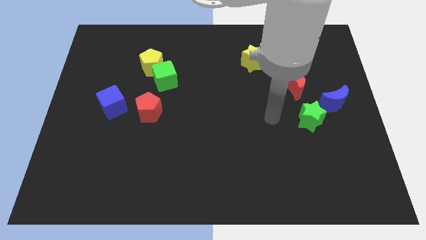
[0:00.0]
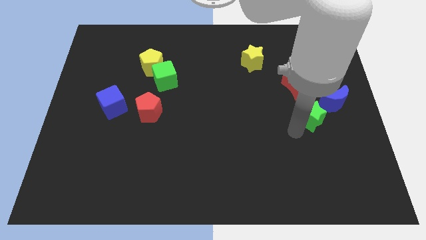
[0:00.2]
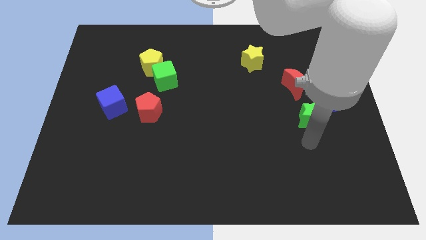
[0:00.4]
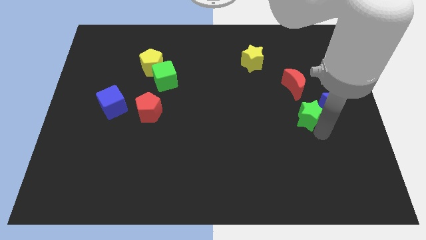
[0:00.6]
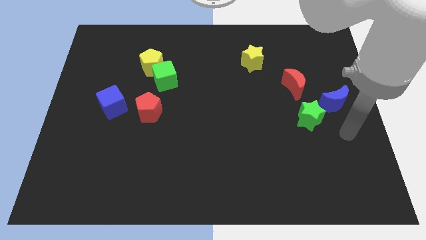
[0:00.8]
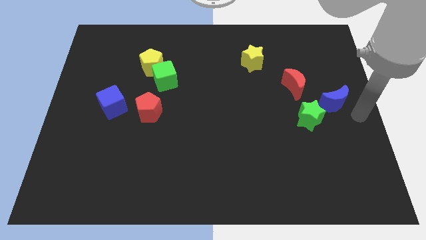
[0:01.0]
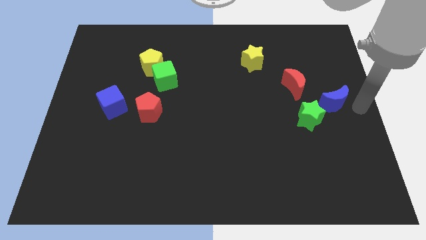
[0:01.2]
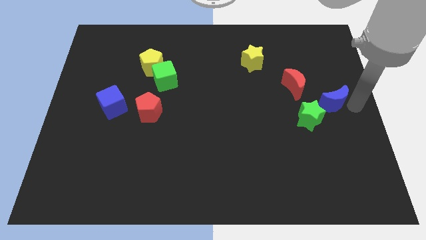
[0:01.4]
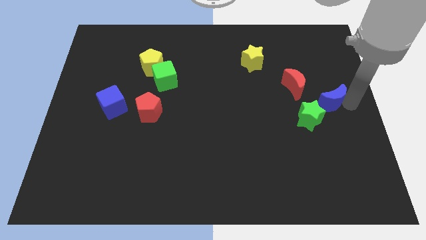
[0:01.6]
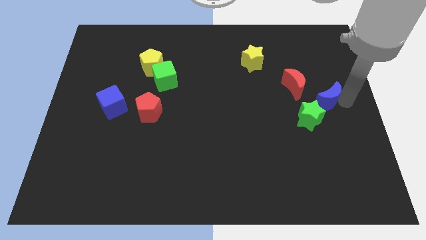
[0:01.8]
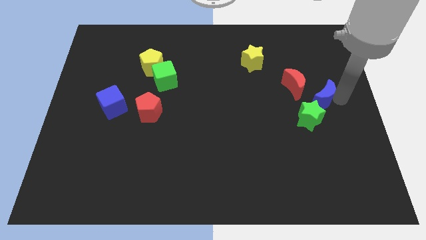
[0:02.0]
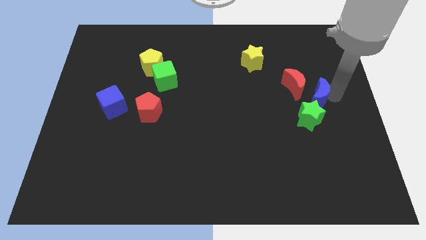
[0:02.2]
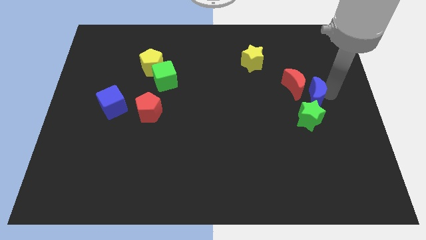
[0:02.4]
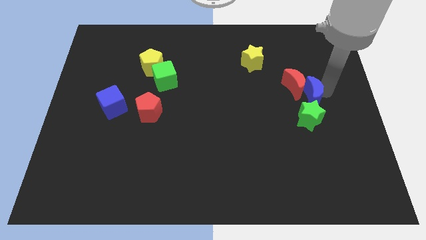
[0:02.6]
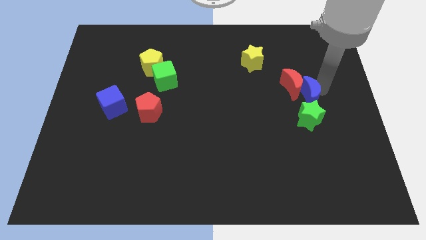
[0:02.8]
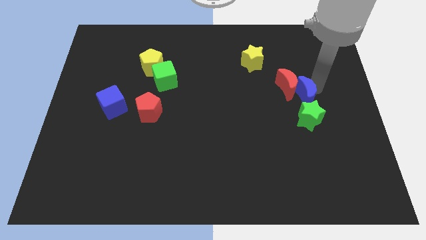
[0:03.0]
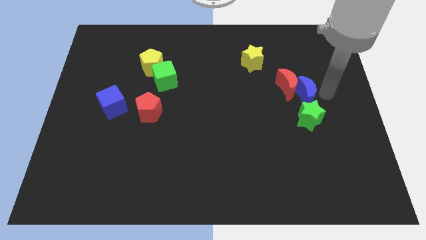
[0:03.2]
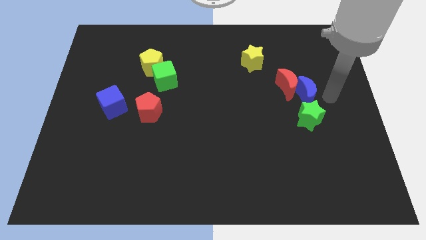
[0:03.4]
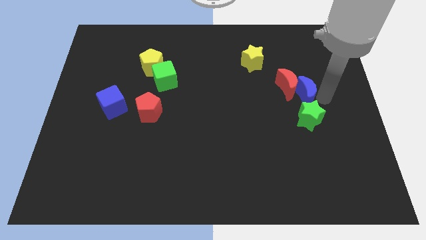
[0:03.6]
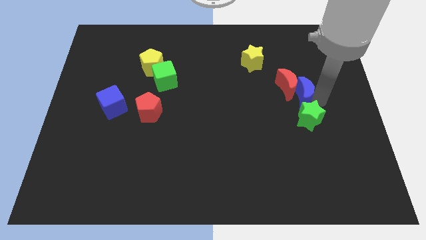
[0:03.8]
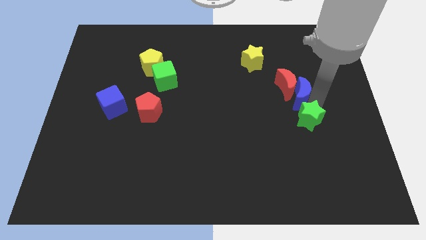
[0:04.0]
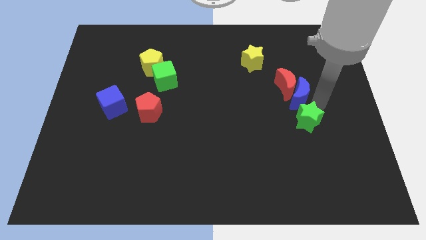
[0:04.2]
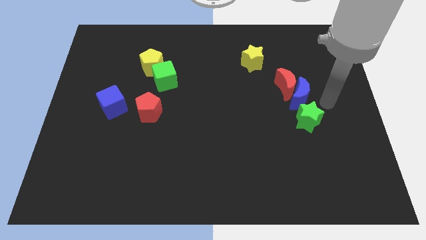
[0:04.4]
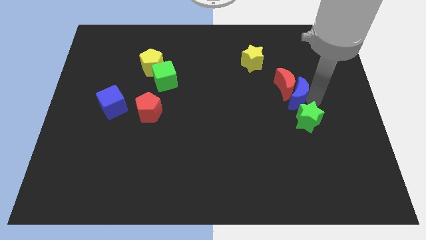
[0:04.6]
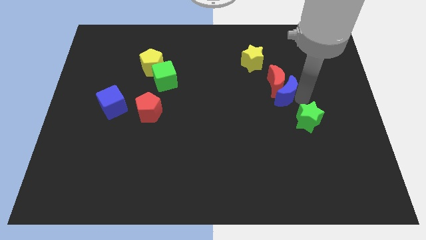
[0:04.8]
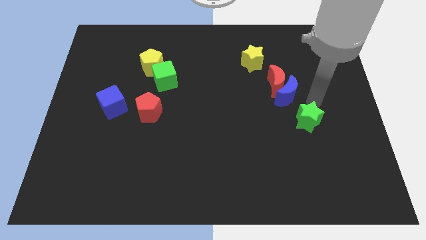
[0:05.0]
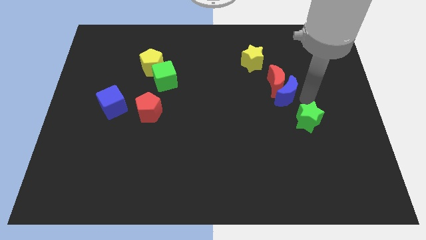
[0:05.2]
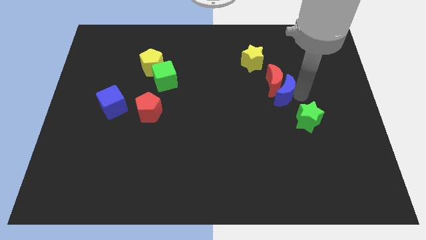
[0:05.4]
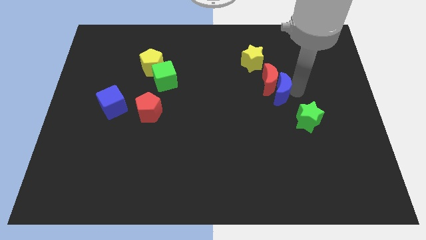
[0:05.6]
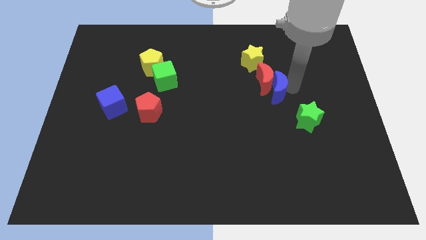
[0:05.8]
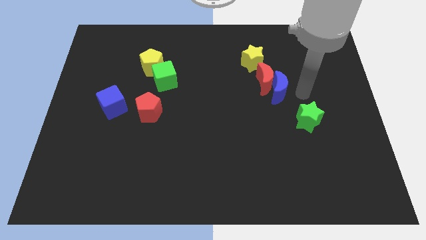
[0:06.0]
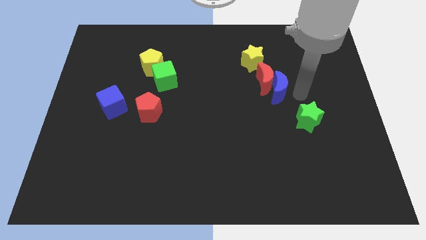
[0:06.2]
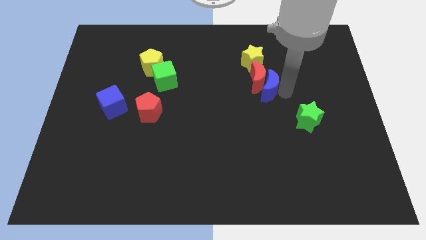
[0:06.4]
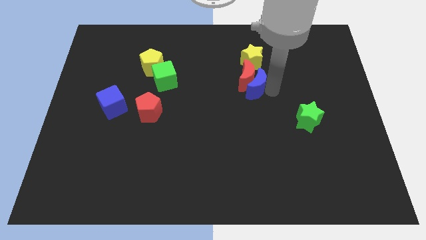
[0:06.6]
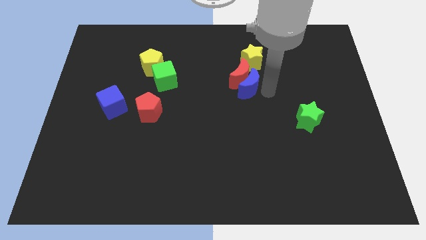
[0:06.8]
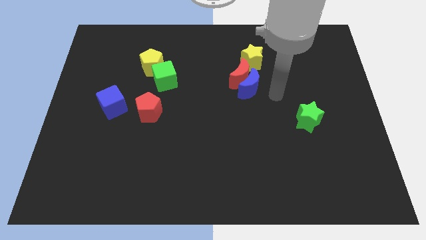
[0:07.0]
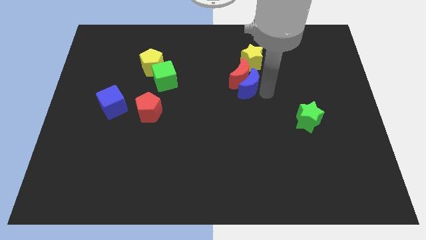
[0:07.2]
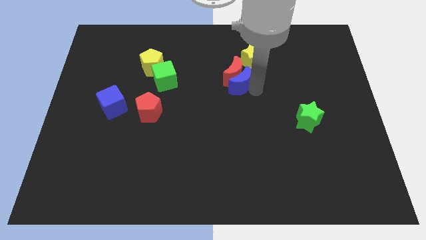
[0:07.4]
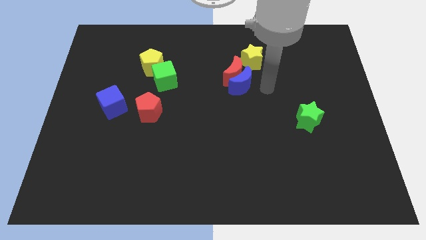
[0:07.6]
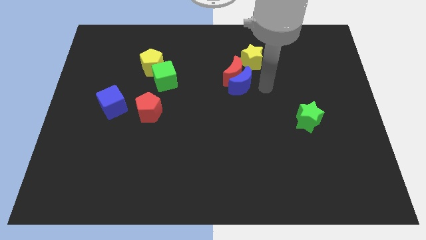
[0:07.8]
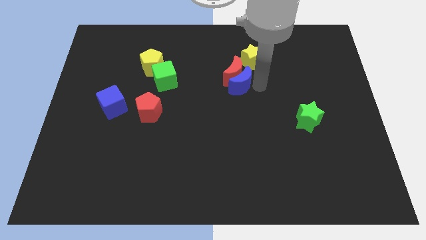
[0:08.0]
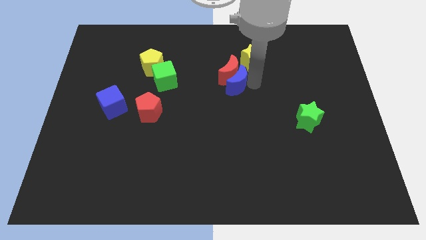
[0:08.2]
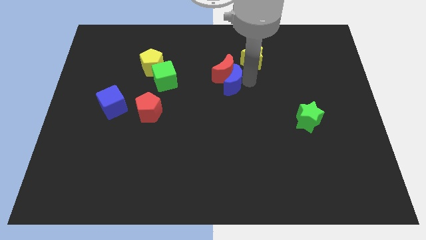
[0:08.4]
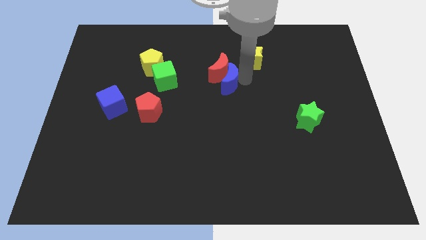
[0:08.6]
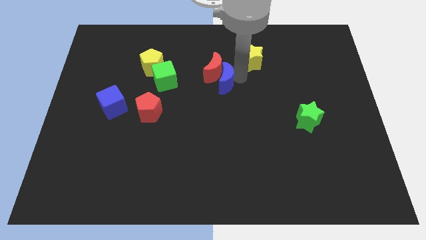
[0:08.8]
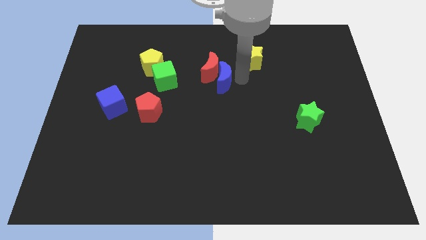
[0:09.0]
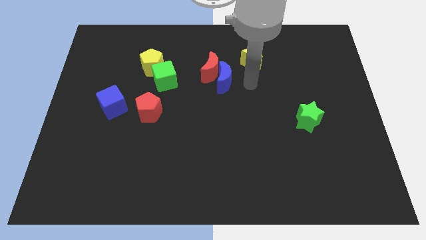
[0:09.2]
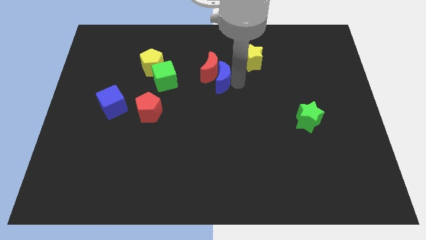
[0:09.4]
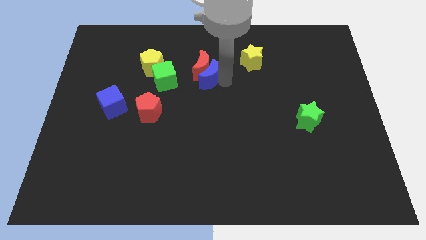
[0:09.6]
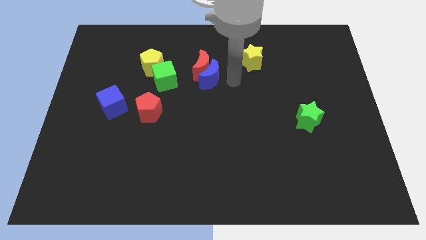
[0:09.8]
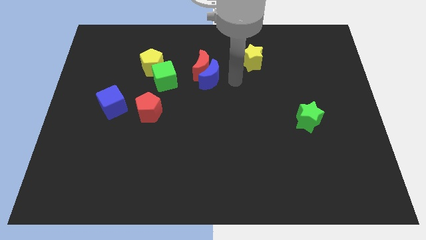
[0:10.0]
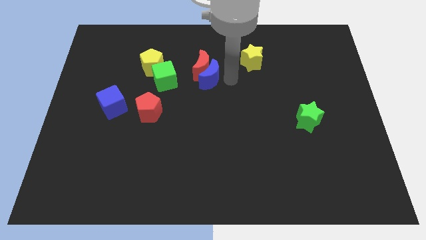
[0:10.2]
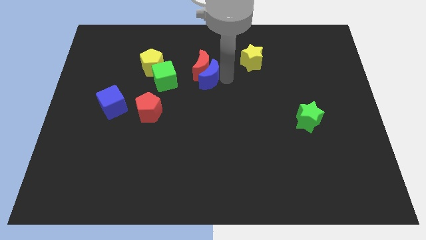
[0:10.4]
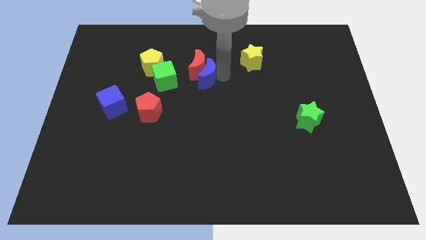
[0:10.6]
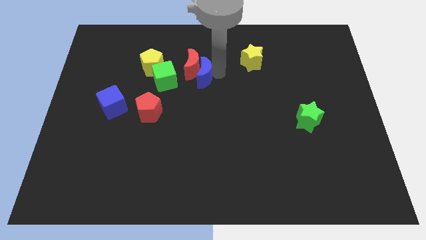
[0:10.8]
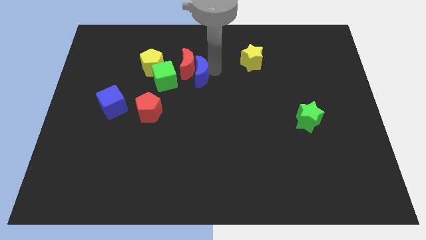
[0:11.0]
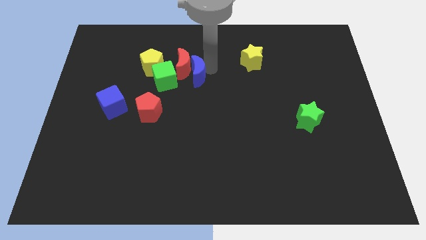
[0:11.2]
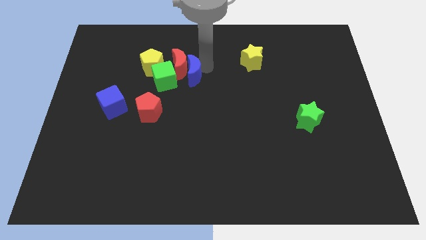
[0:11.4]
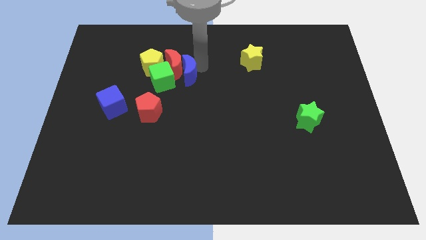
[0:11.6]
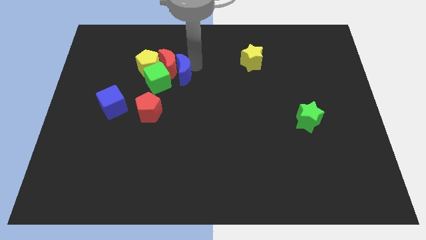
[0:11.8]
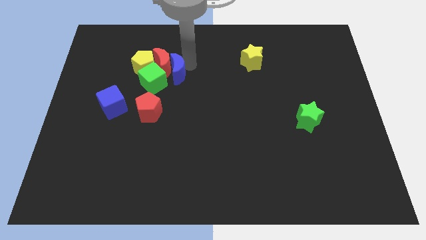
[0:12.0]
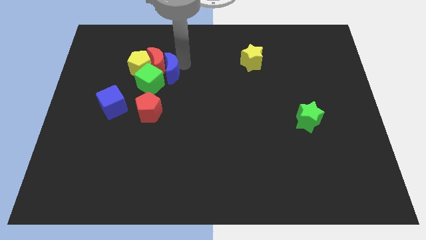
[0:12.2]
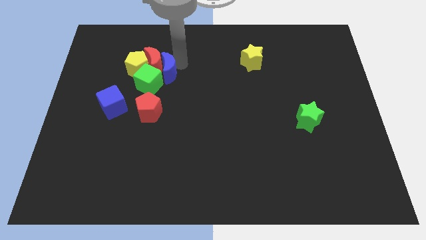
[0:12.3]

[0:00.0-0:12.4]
put the blue moon next to the green cube
